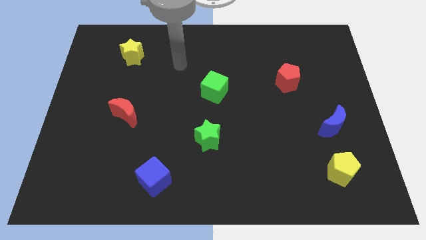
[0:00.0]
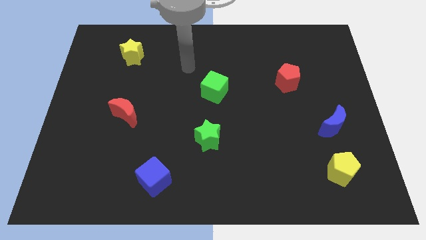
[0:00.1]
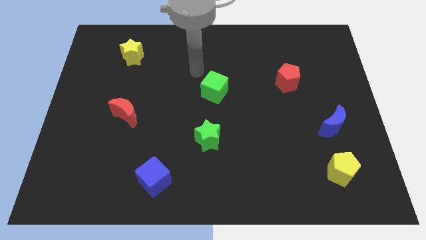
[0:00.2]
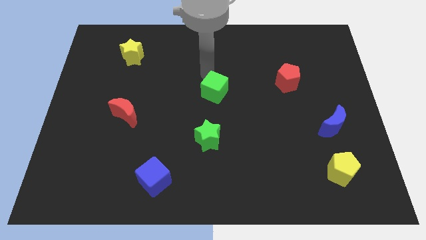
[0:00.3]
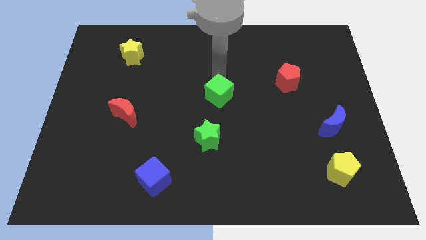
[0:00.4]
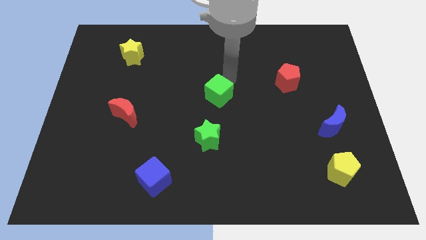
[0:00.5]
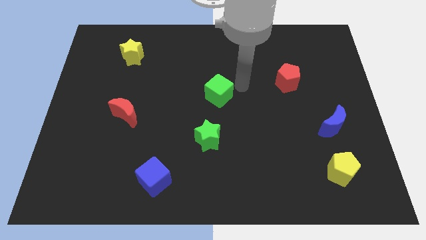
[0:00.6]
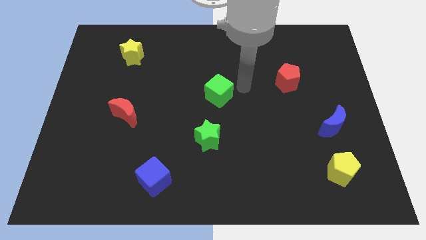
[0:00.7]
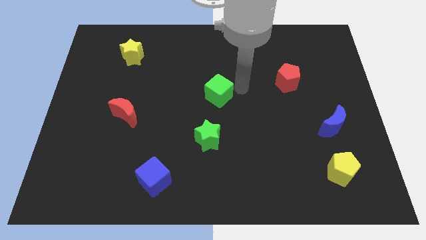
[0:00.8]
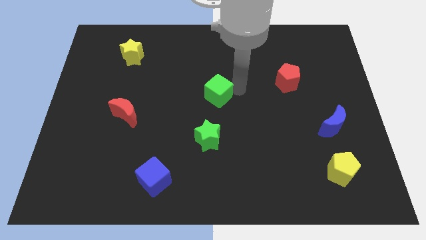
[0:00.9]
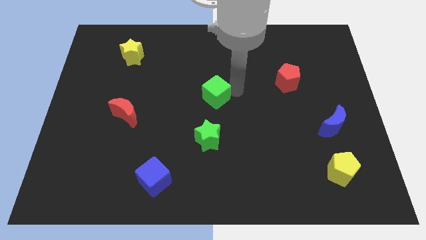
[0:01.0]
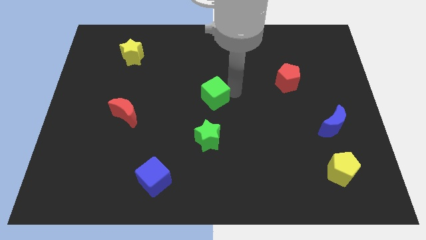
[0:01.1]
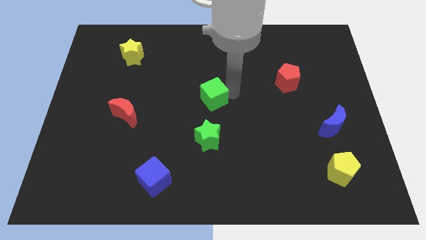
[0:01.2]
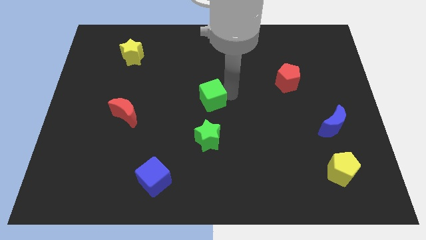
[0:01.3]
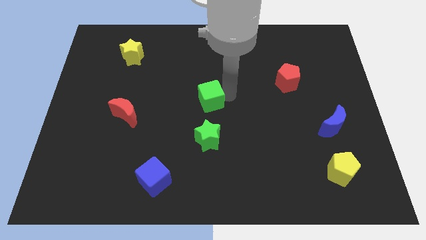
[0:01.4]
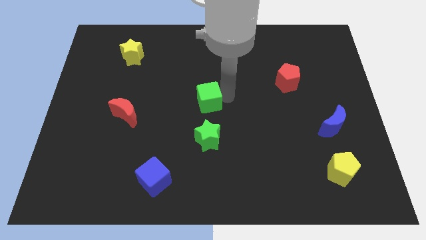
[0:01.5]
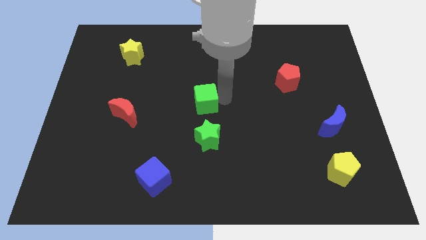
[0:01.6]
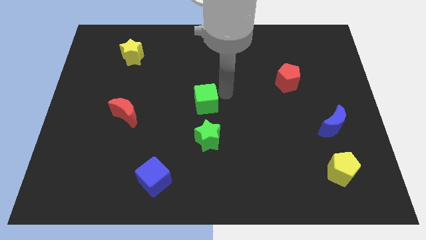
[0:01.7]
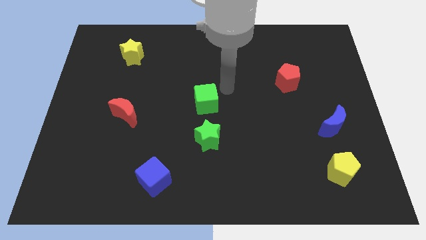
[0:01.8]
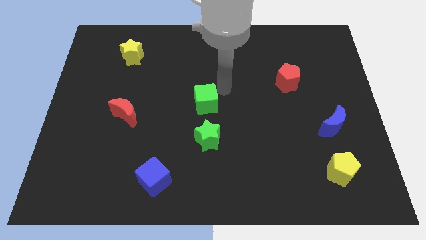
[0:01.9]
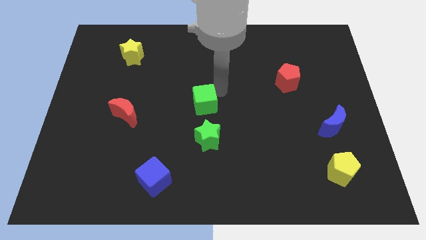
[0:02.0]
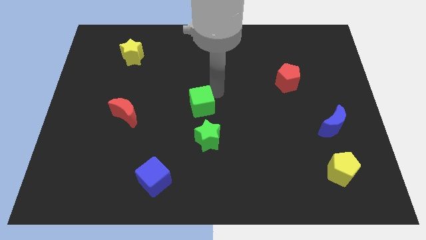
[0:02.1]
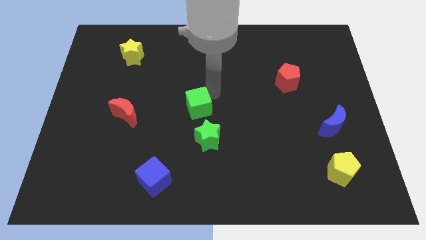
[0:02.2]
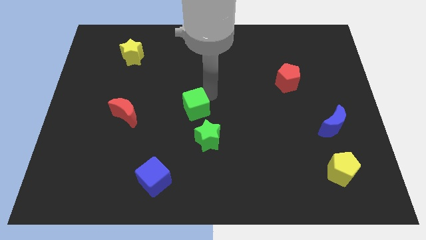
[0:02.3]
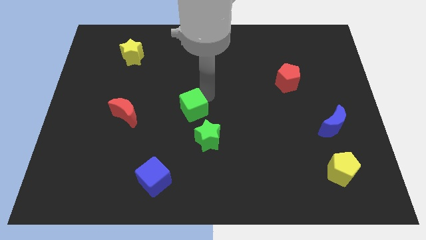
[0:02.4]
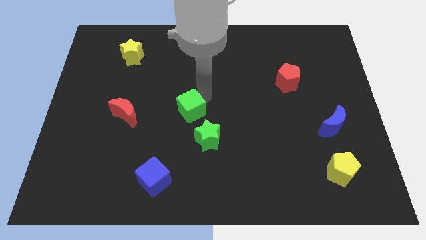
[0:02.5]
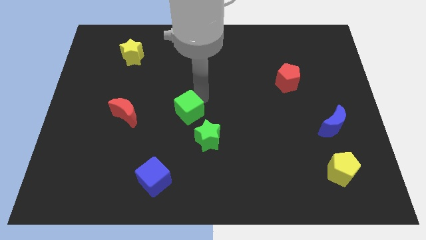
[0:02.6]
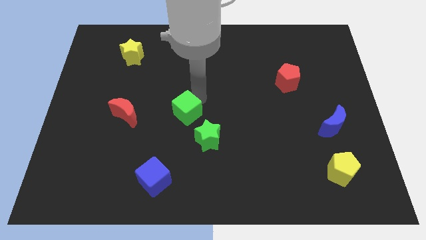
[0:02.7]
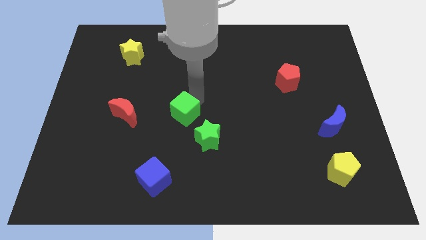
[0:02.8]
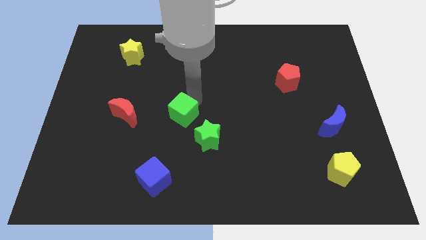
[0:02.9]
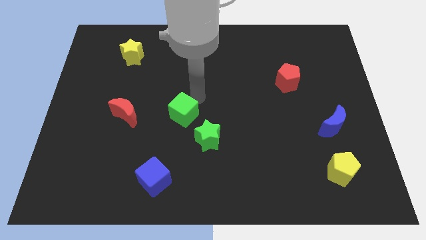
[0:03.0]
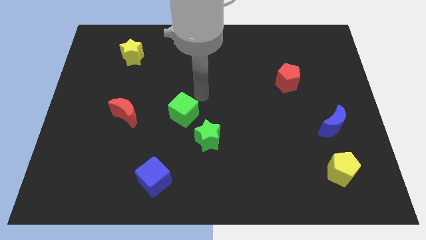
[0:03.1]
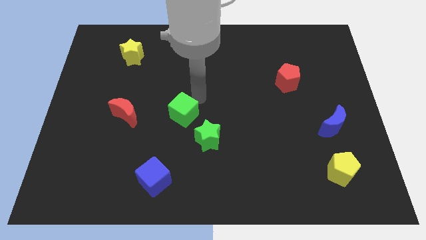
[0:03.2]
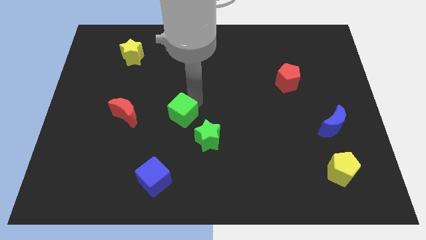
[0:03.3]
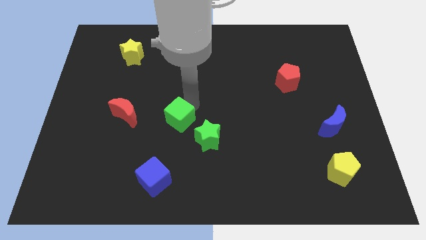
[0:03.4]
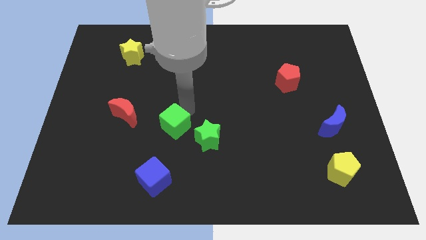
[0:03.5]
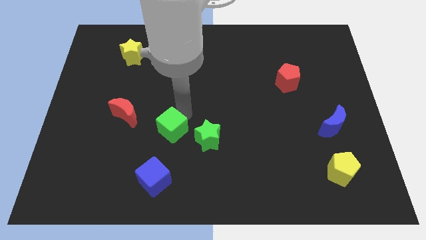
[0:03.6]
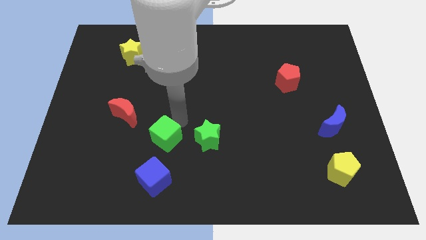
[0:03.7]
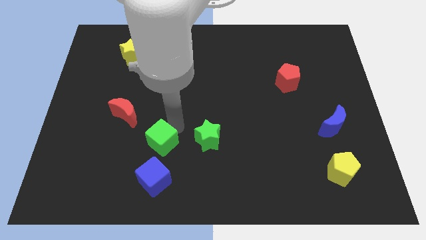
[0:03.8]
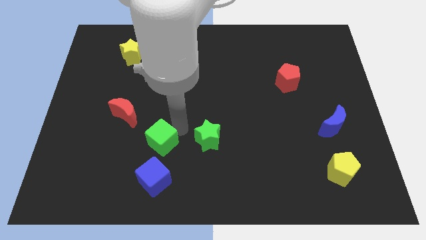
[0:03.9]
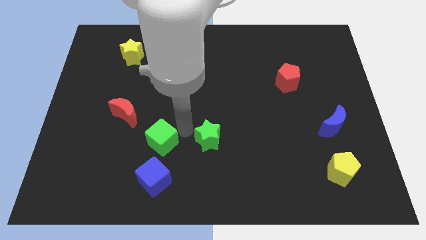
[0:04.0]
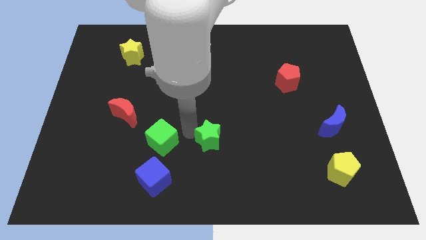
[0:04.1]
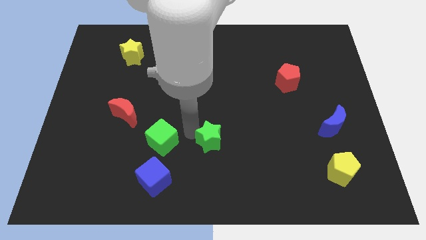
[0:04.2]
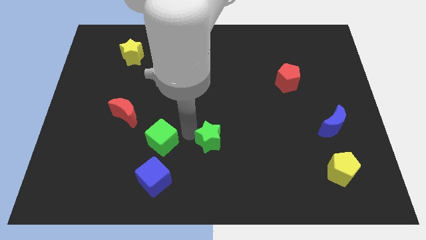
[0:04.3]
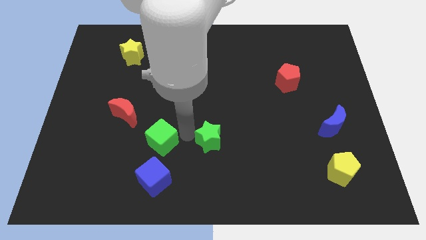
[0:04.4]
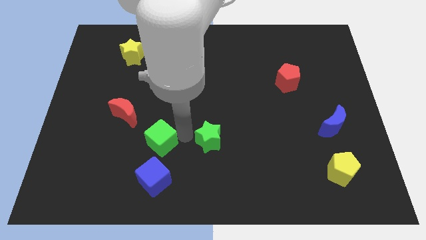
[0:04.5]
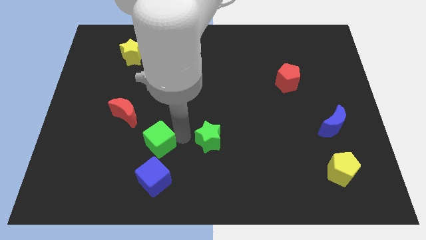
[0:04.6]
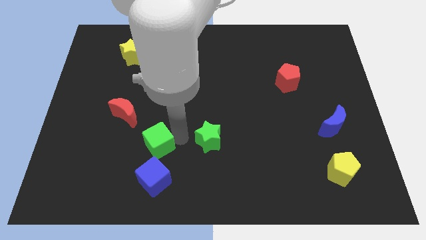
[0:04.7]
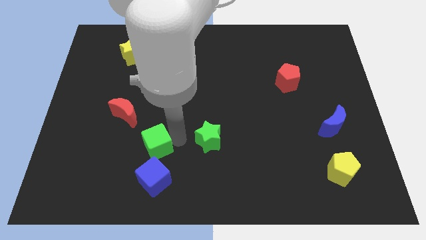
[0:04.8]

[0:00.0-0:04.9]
push the green cube diagonally down and left

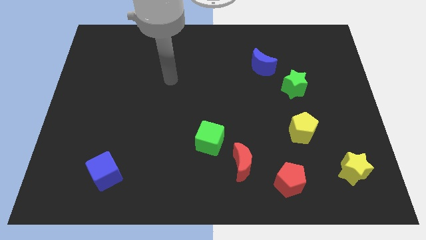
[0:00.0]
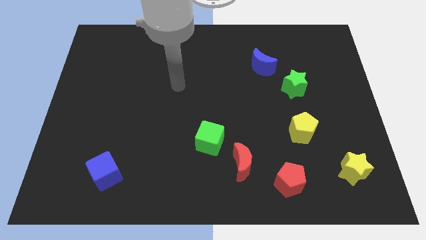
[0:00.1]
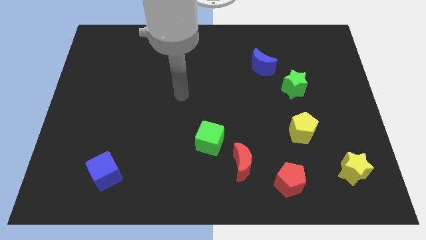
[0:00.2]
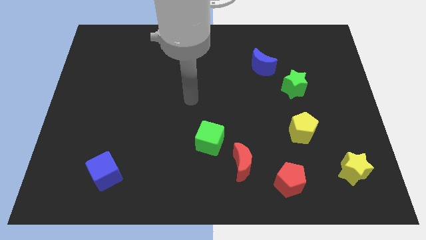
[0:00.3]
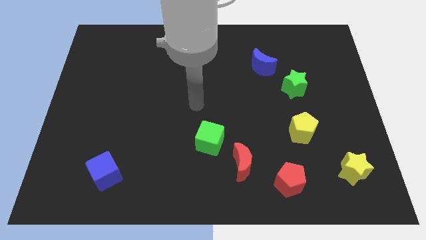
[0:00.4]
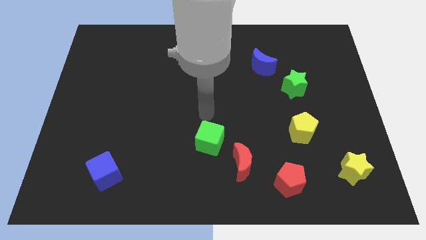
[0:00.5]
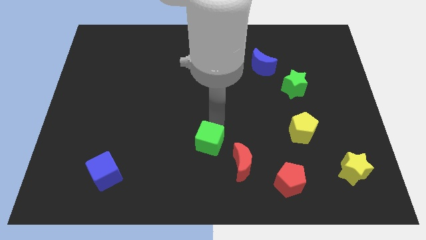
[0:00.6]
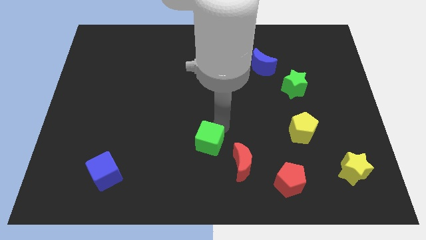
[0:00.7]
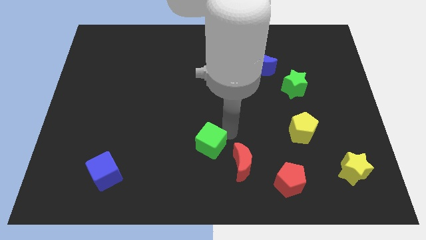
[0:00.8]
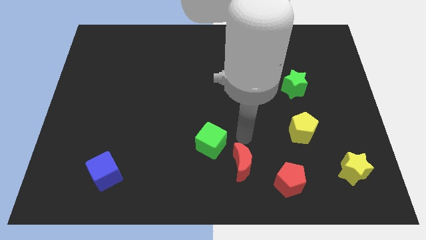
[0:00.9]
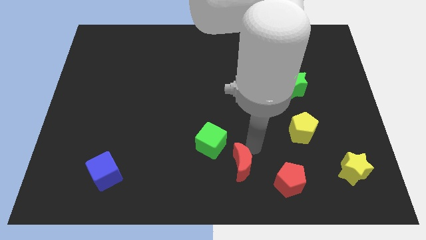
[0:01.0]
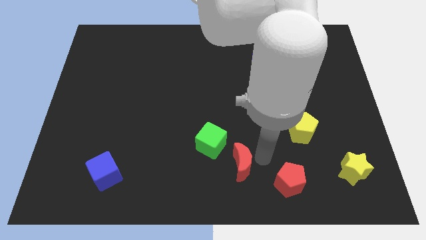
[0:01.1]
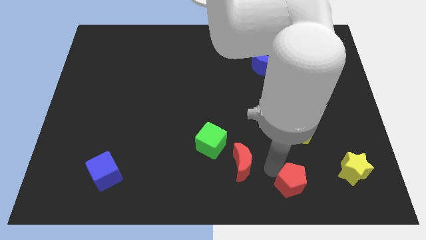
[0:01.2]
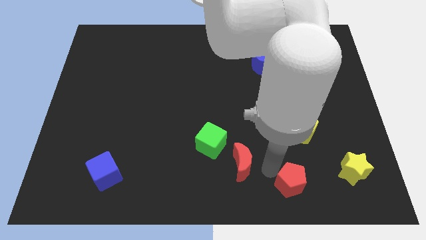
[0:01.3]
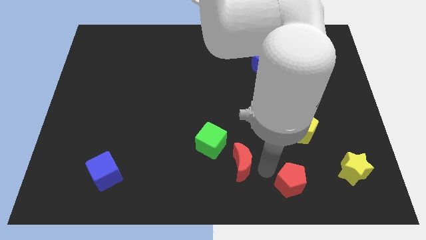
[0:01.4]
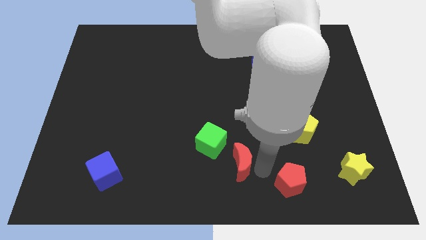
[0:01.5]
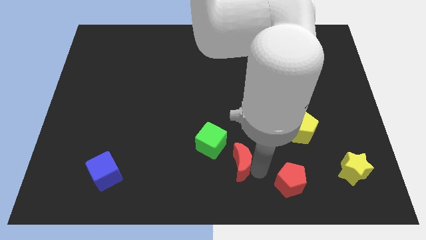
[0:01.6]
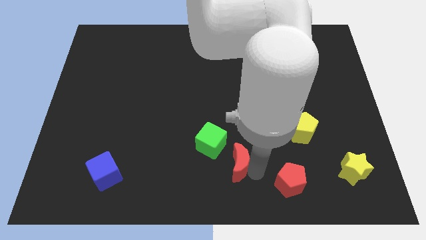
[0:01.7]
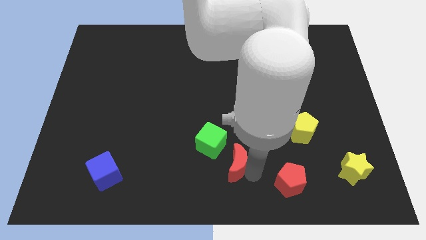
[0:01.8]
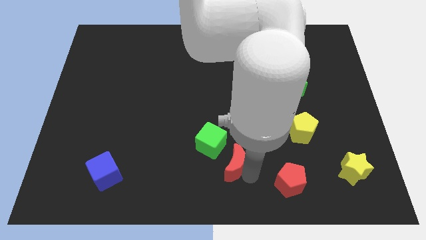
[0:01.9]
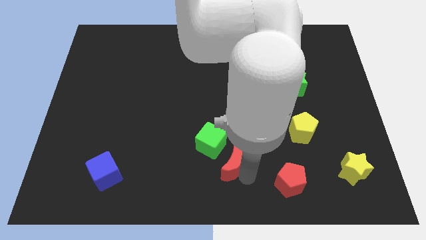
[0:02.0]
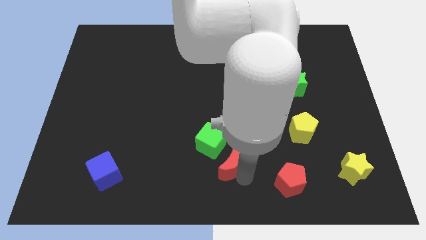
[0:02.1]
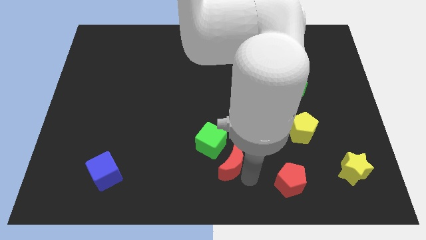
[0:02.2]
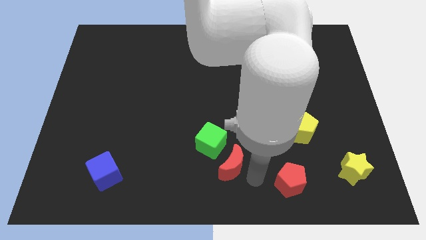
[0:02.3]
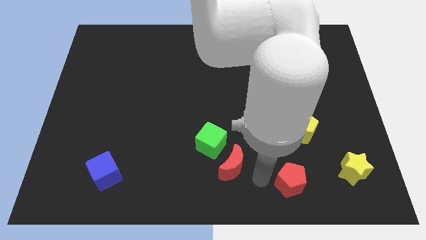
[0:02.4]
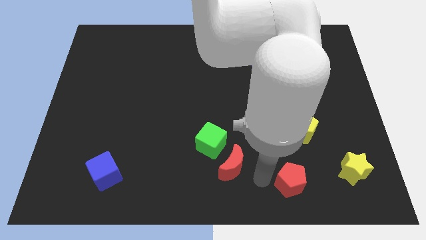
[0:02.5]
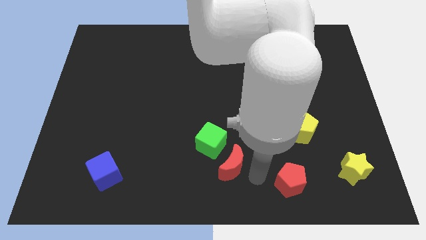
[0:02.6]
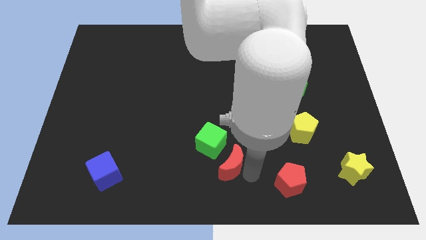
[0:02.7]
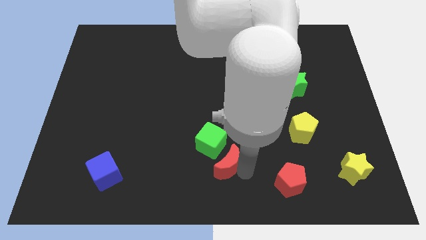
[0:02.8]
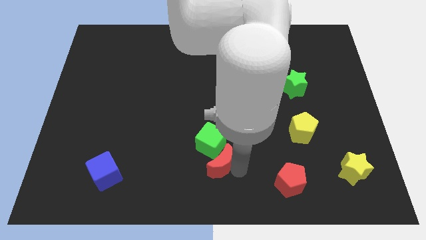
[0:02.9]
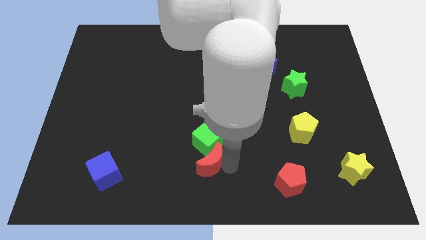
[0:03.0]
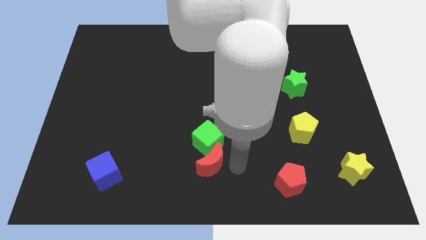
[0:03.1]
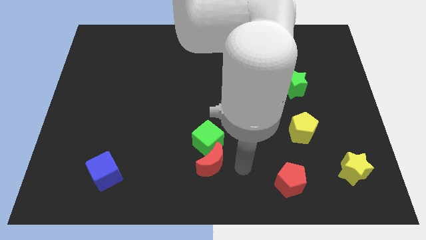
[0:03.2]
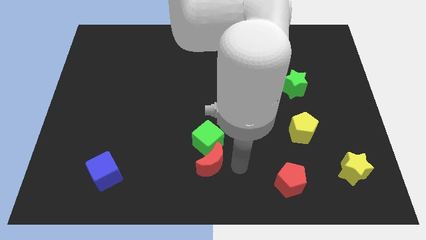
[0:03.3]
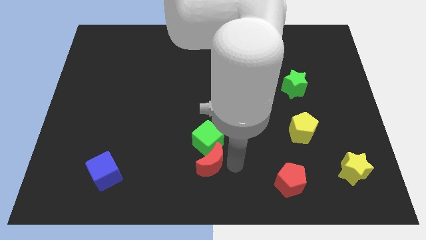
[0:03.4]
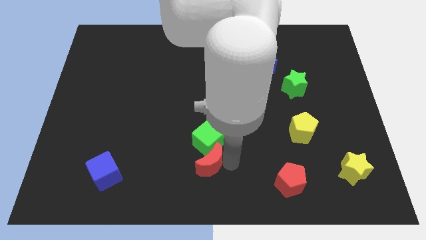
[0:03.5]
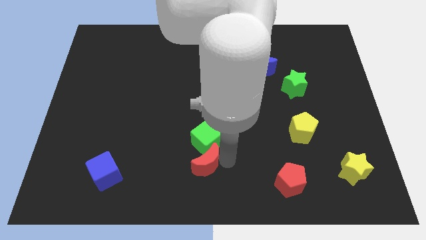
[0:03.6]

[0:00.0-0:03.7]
push the red moon a little bit left
